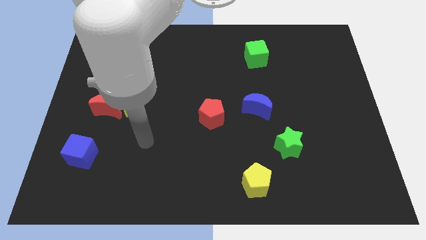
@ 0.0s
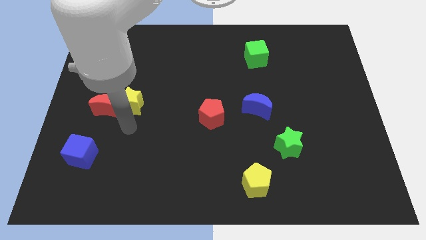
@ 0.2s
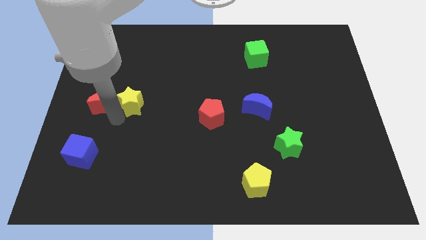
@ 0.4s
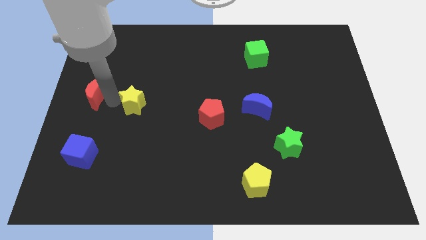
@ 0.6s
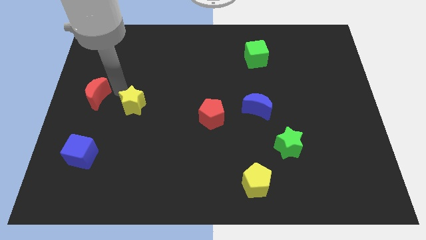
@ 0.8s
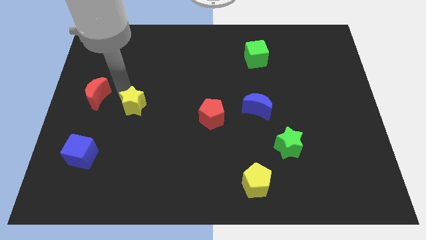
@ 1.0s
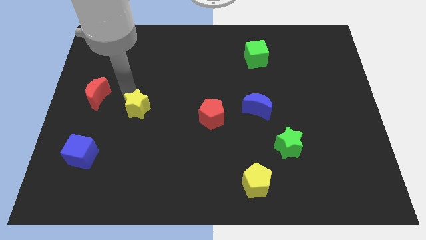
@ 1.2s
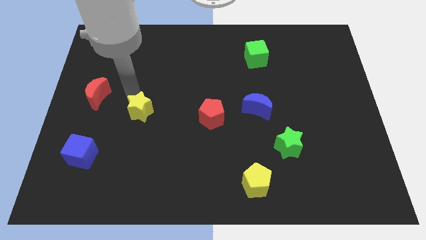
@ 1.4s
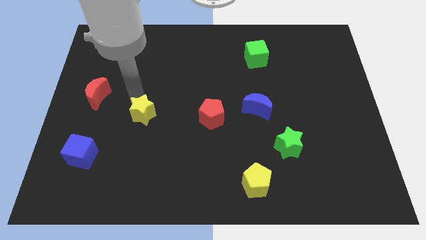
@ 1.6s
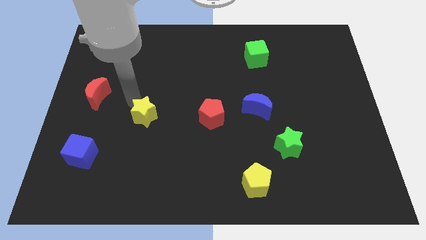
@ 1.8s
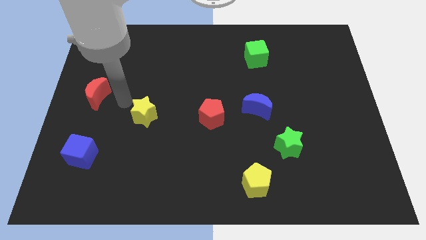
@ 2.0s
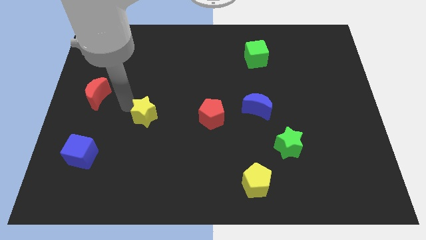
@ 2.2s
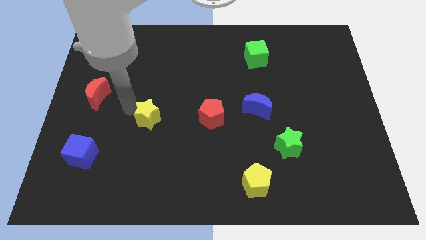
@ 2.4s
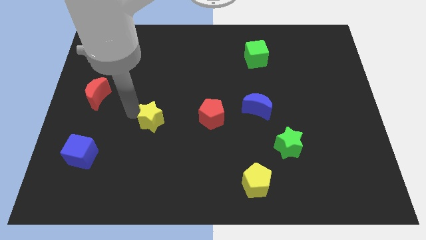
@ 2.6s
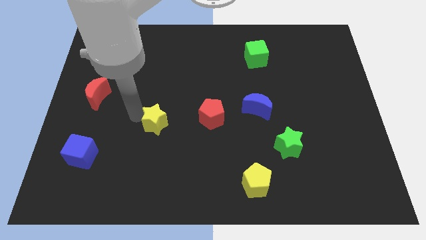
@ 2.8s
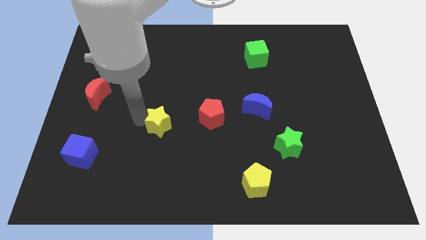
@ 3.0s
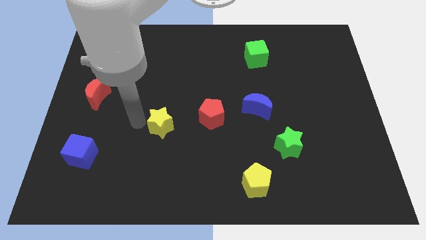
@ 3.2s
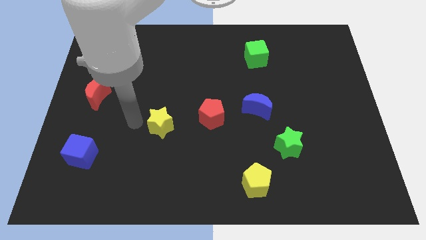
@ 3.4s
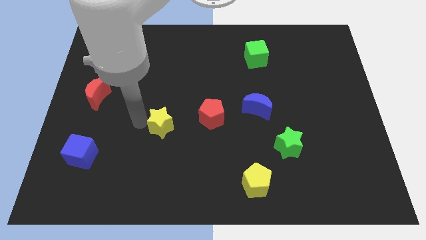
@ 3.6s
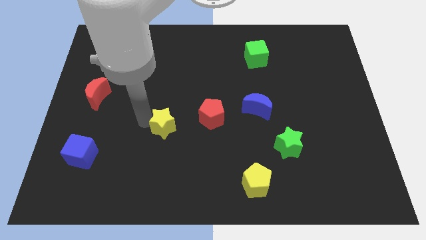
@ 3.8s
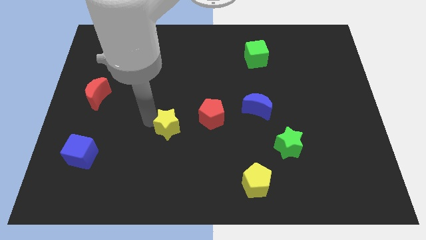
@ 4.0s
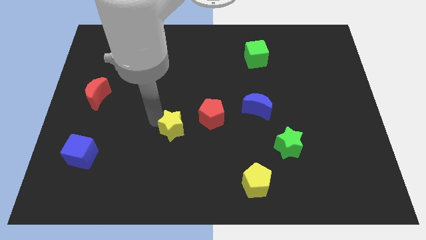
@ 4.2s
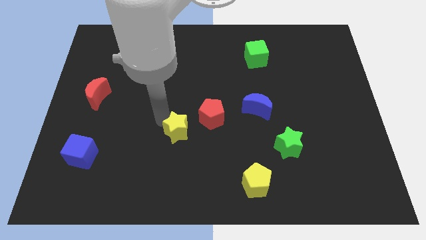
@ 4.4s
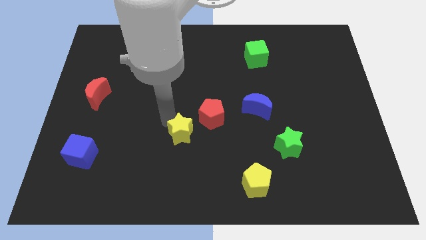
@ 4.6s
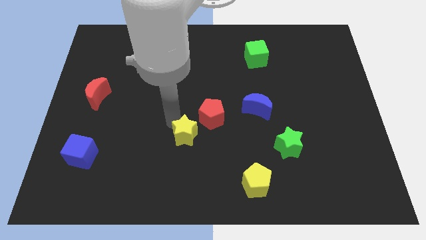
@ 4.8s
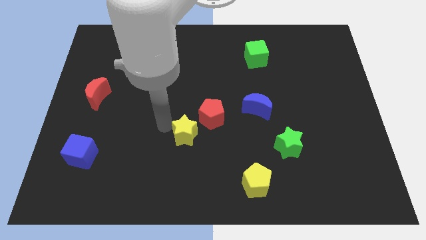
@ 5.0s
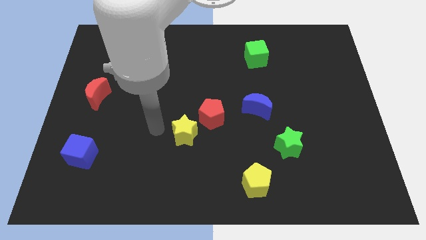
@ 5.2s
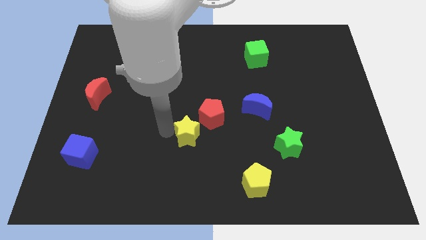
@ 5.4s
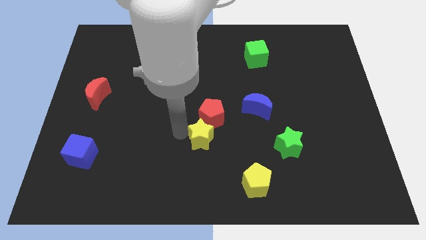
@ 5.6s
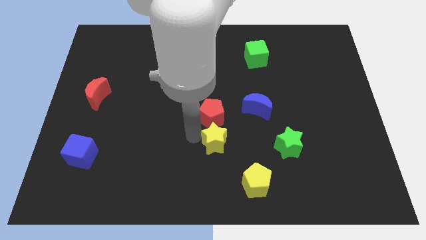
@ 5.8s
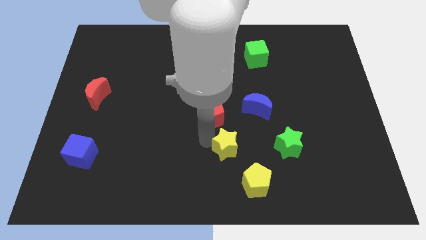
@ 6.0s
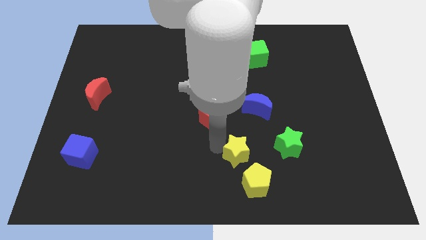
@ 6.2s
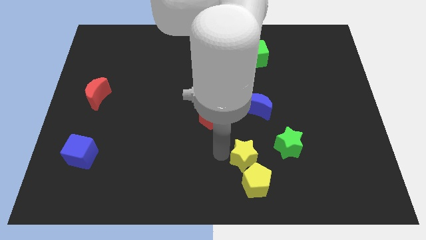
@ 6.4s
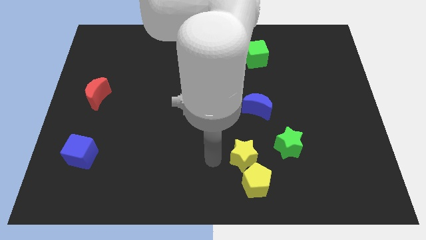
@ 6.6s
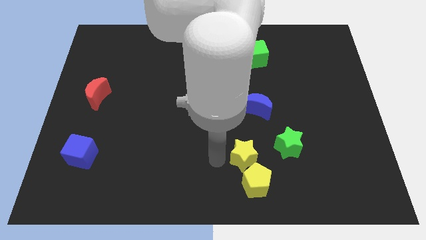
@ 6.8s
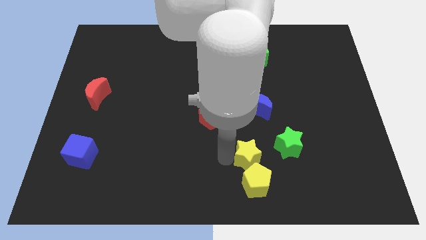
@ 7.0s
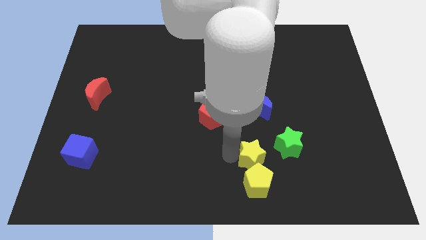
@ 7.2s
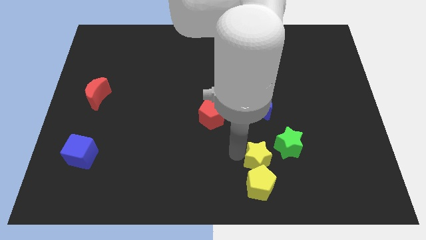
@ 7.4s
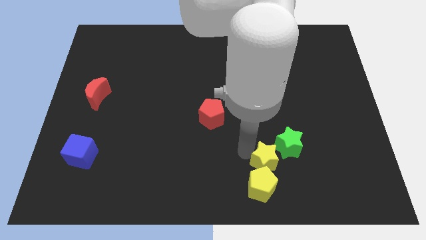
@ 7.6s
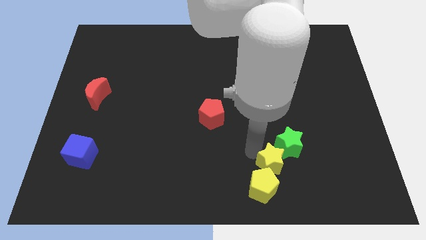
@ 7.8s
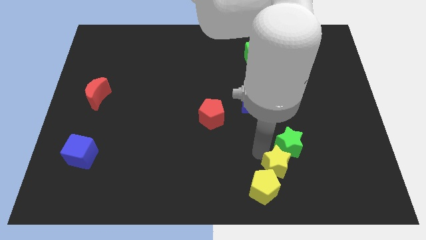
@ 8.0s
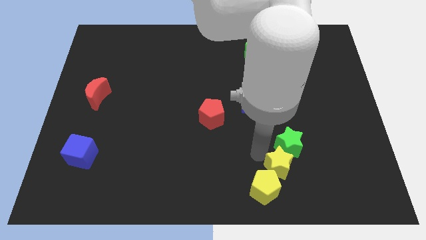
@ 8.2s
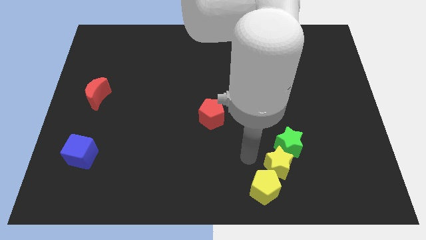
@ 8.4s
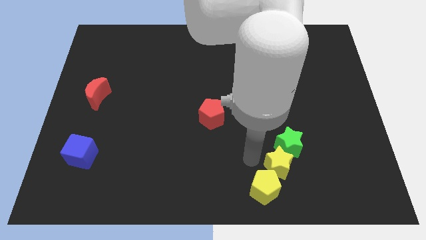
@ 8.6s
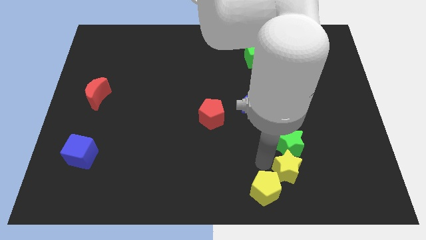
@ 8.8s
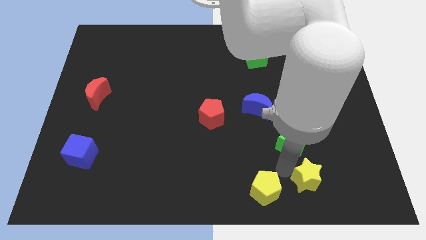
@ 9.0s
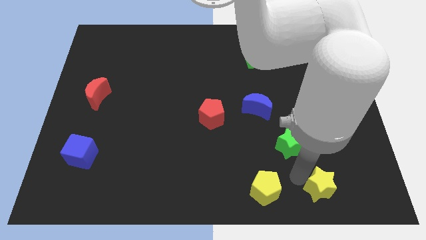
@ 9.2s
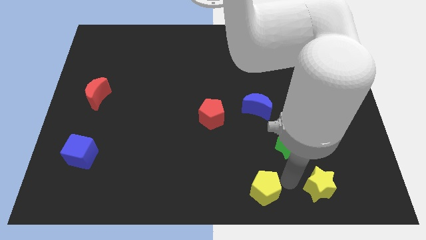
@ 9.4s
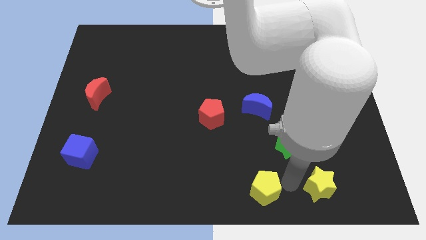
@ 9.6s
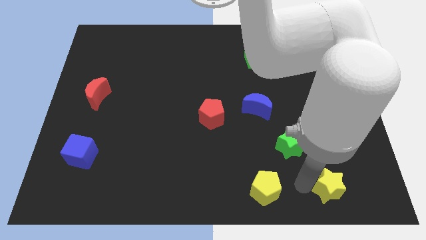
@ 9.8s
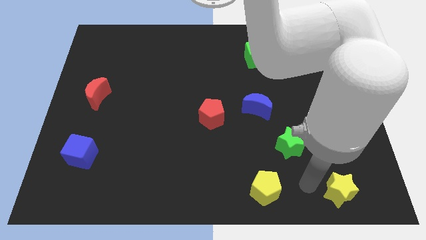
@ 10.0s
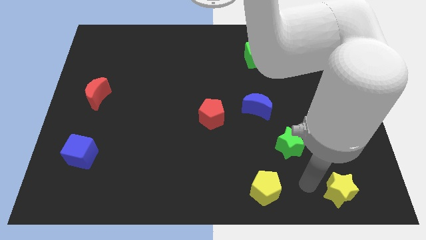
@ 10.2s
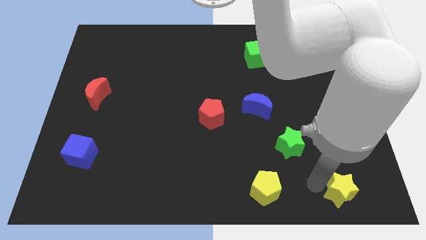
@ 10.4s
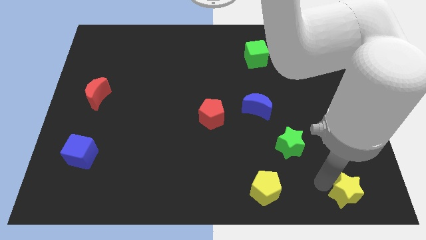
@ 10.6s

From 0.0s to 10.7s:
move the yellow star to the lower right corner

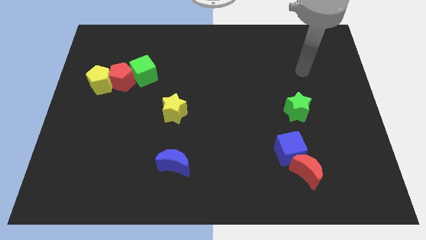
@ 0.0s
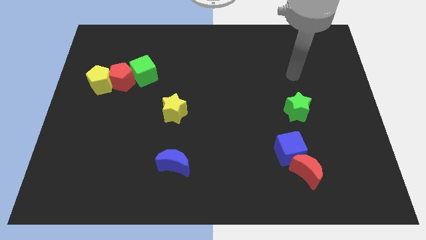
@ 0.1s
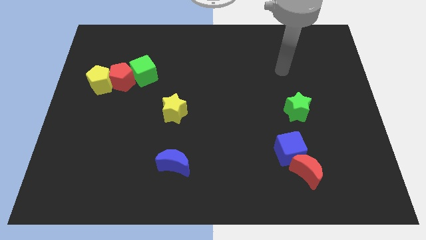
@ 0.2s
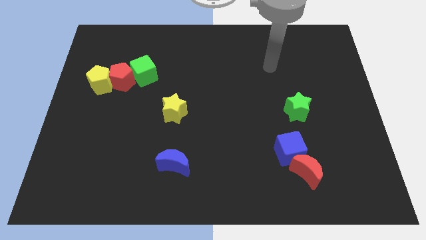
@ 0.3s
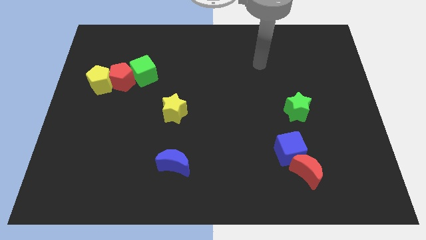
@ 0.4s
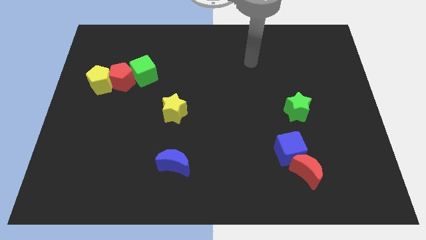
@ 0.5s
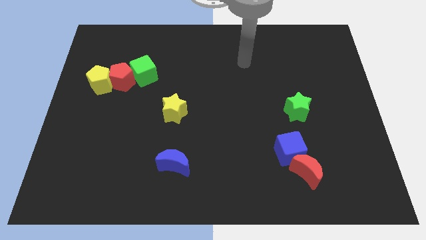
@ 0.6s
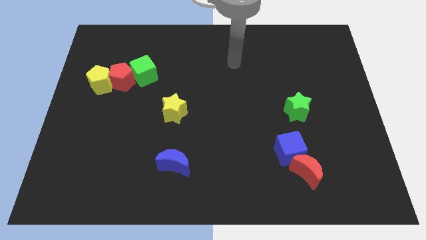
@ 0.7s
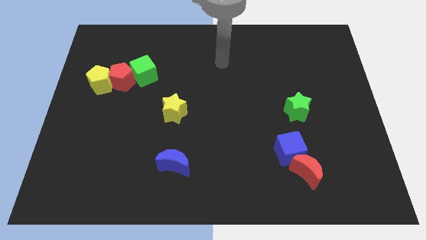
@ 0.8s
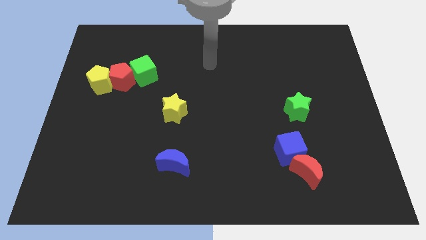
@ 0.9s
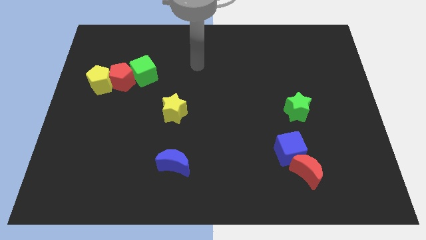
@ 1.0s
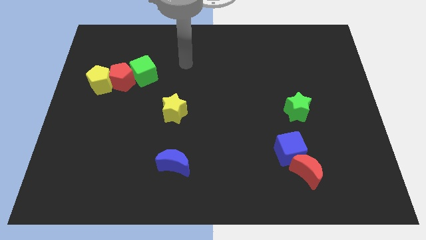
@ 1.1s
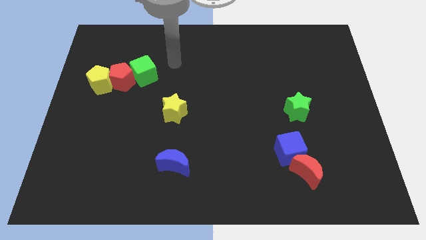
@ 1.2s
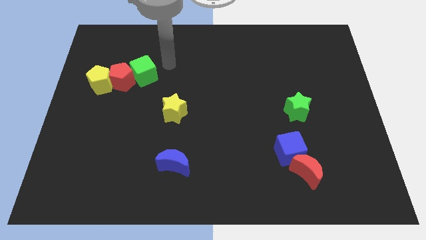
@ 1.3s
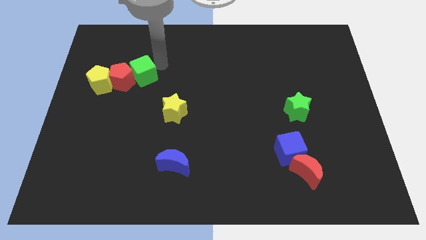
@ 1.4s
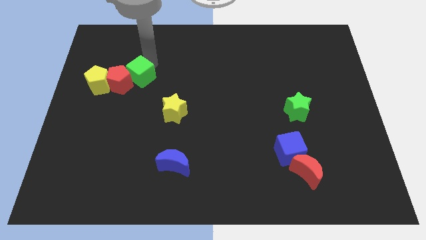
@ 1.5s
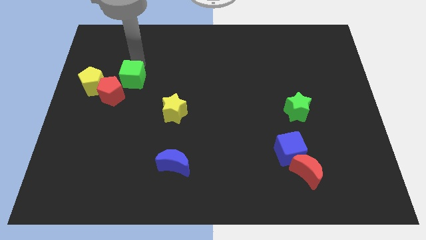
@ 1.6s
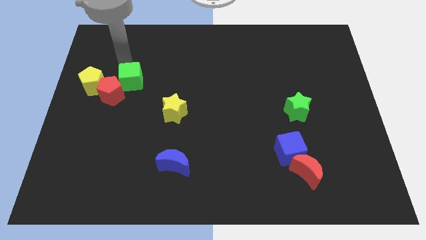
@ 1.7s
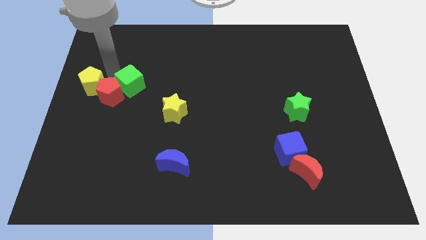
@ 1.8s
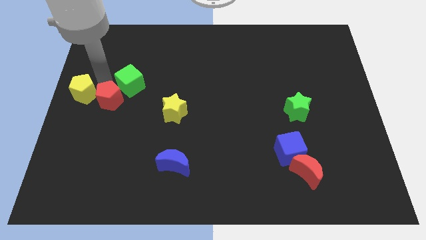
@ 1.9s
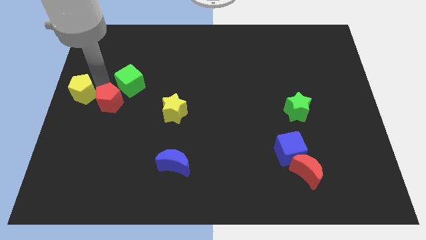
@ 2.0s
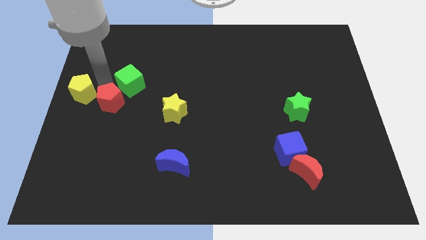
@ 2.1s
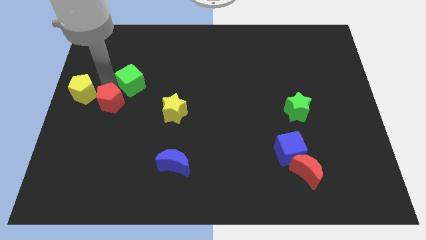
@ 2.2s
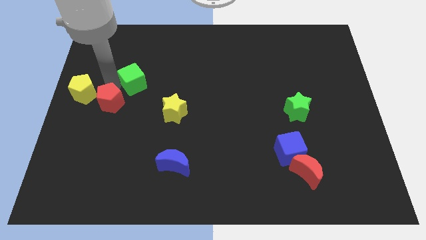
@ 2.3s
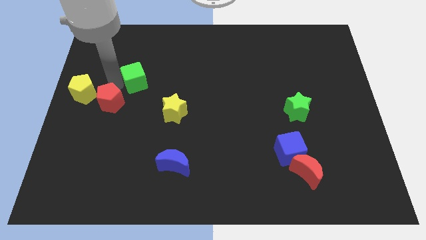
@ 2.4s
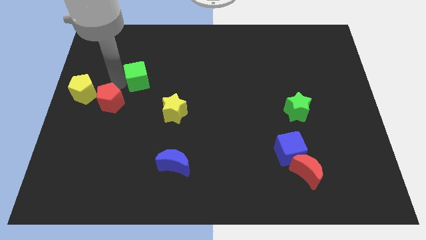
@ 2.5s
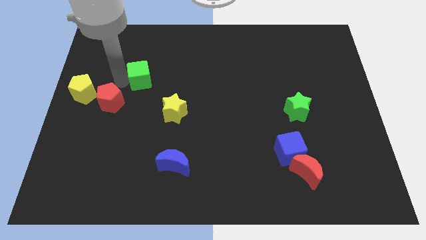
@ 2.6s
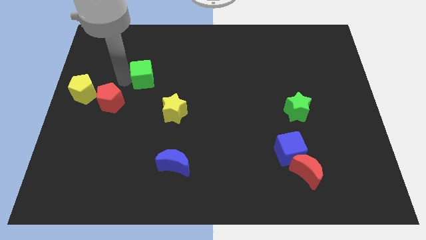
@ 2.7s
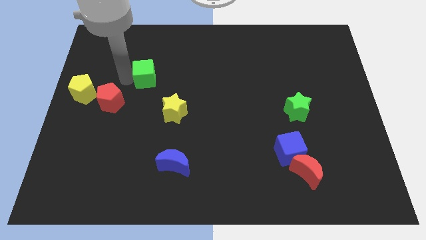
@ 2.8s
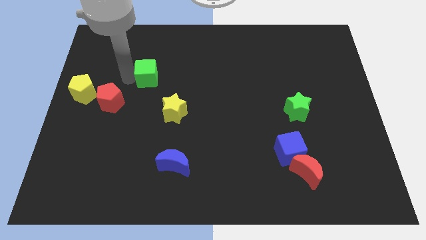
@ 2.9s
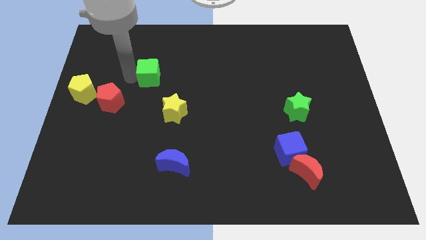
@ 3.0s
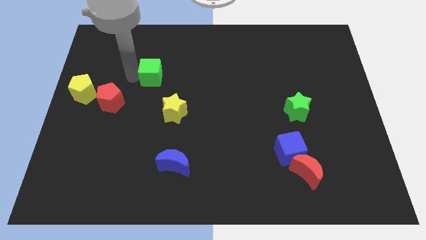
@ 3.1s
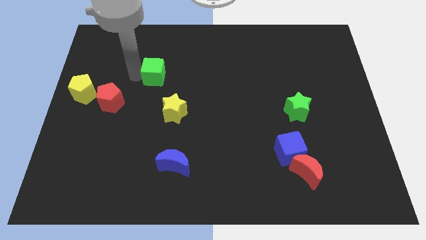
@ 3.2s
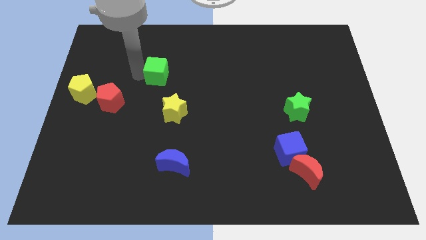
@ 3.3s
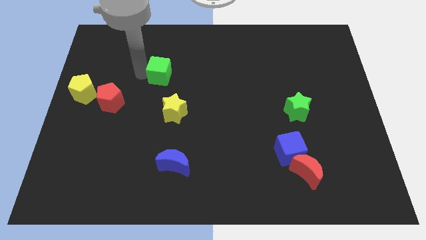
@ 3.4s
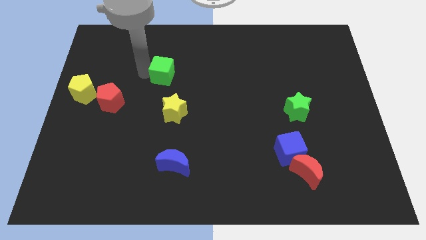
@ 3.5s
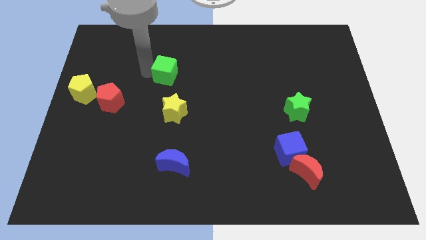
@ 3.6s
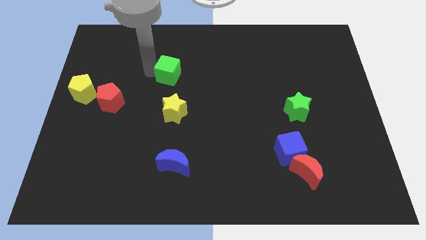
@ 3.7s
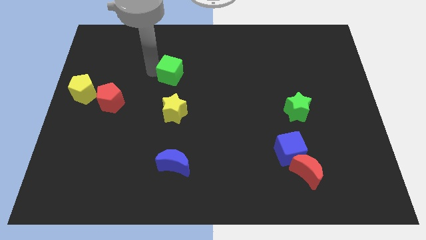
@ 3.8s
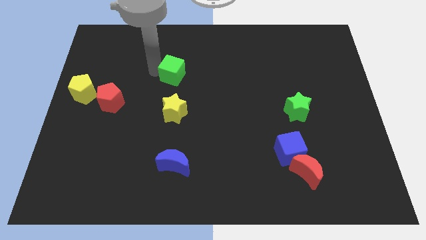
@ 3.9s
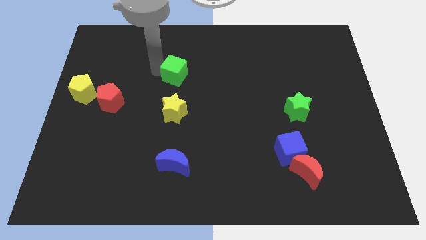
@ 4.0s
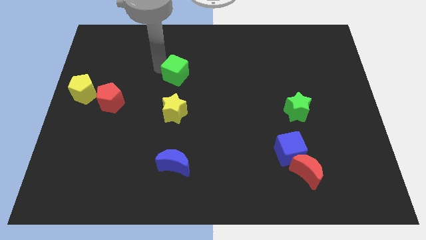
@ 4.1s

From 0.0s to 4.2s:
push the green cube to the center
